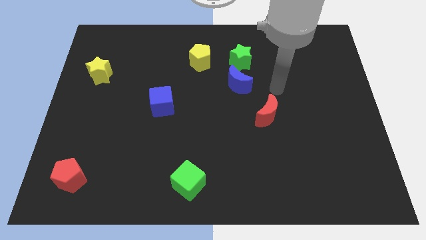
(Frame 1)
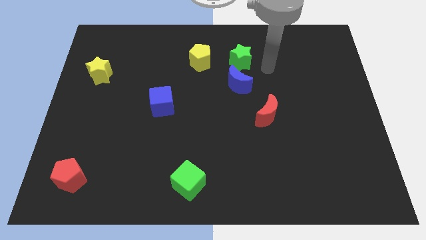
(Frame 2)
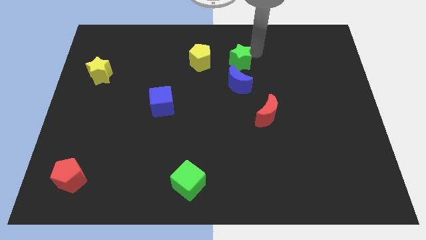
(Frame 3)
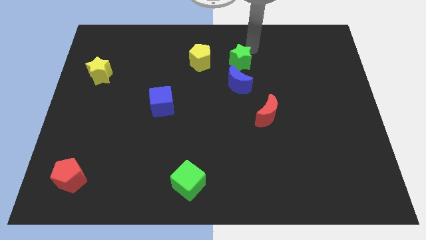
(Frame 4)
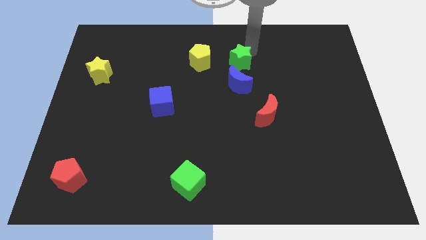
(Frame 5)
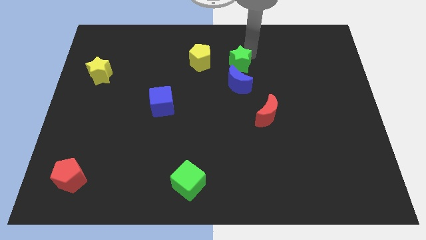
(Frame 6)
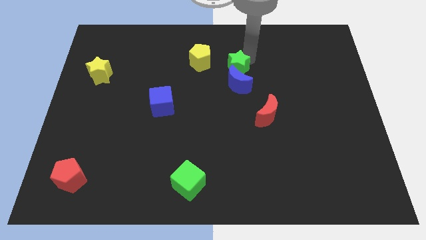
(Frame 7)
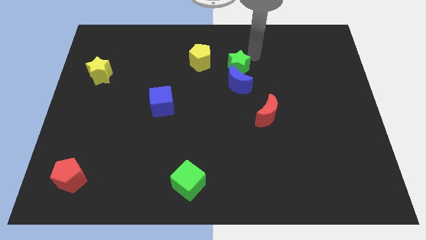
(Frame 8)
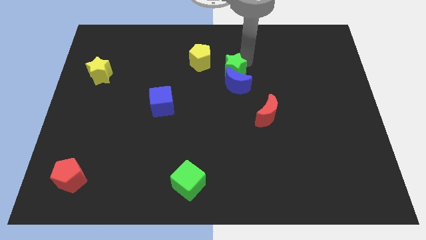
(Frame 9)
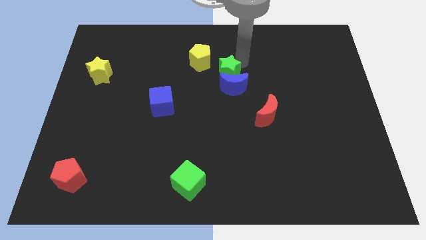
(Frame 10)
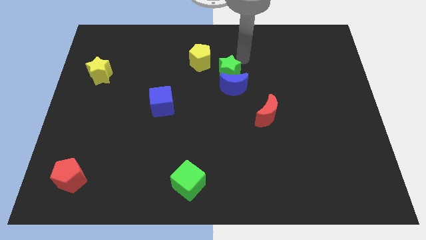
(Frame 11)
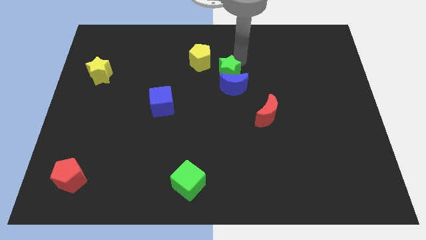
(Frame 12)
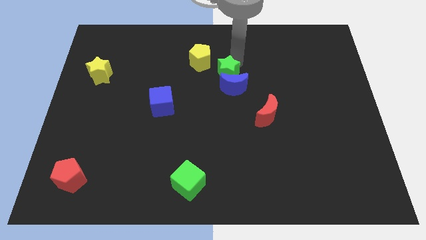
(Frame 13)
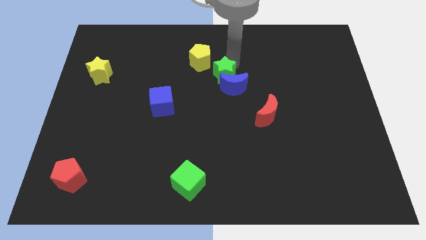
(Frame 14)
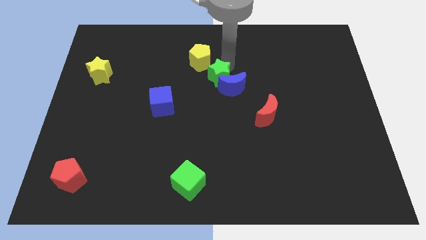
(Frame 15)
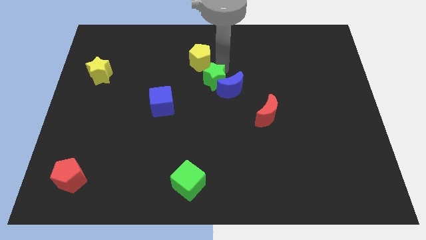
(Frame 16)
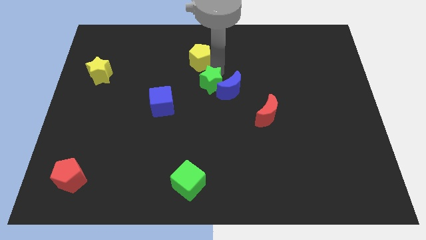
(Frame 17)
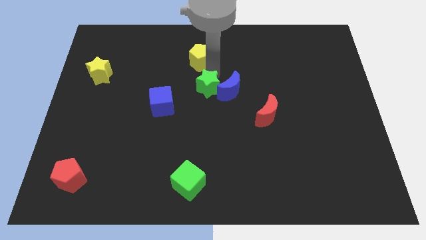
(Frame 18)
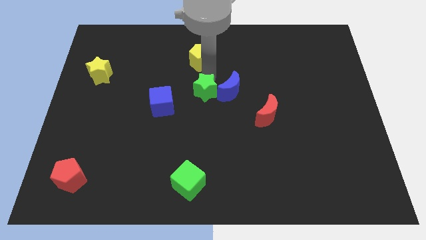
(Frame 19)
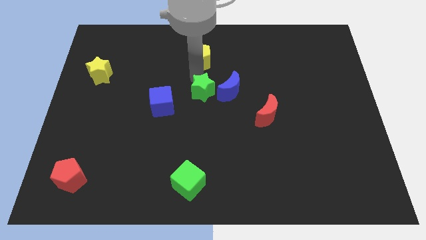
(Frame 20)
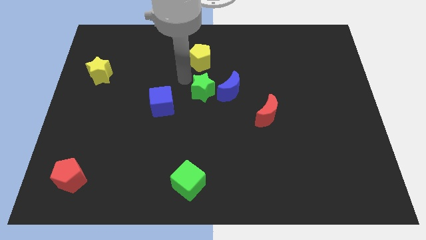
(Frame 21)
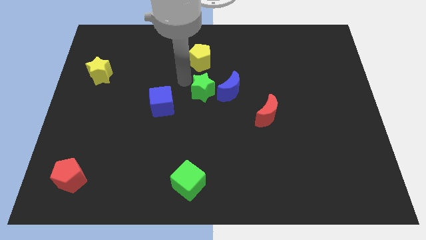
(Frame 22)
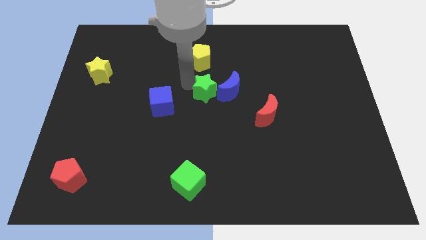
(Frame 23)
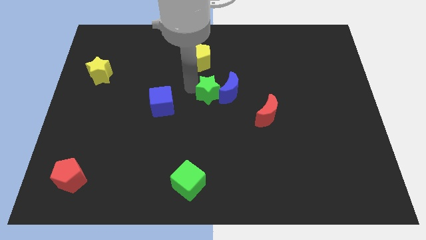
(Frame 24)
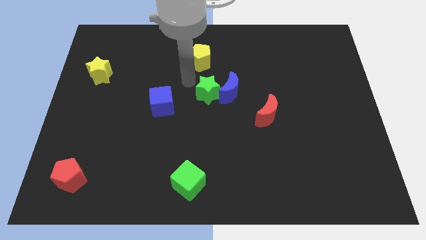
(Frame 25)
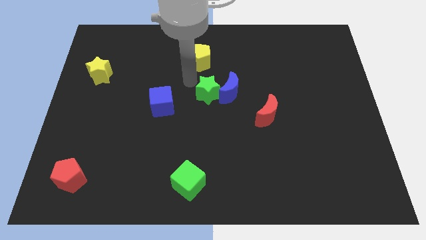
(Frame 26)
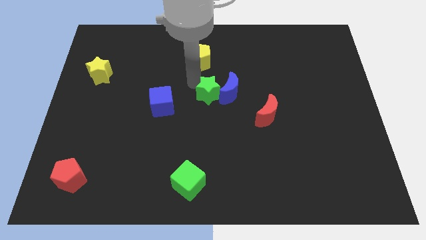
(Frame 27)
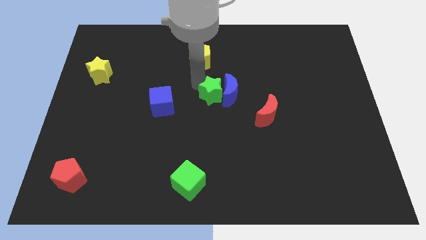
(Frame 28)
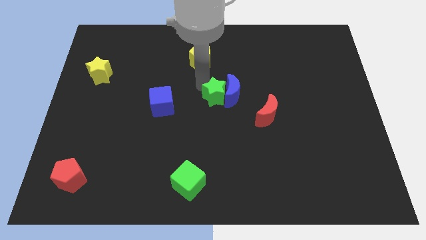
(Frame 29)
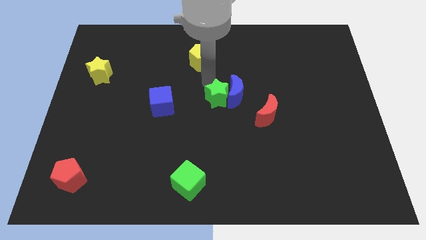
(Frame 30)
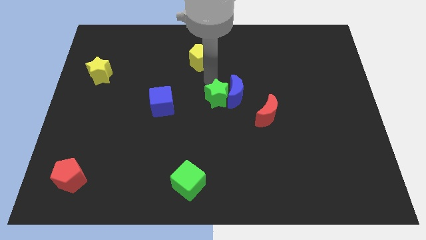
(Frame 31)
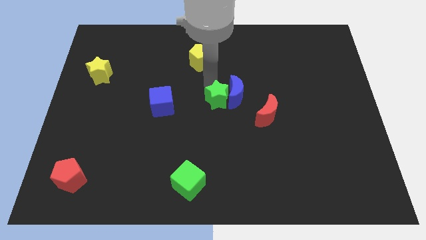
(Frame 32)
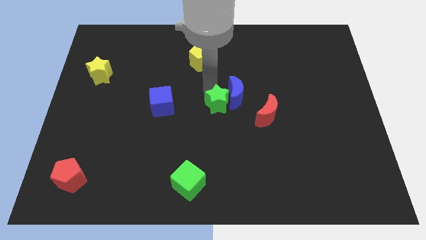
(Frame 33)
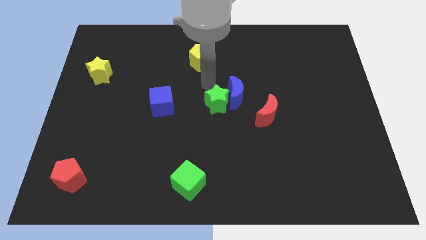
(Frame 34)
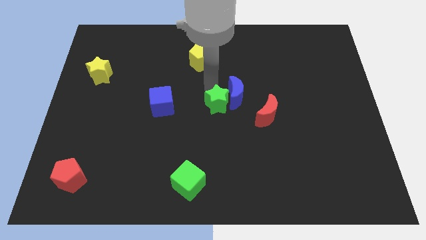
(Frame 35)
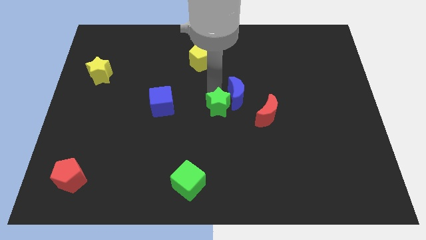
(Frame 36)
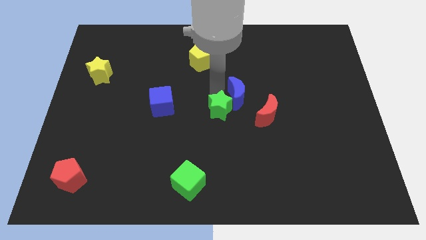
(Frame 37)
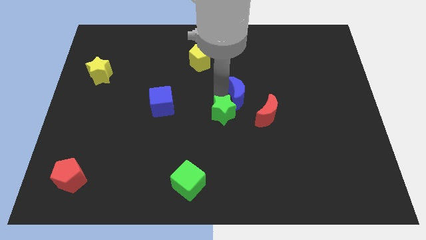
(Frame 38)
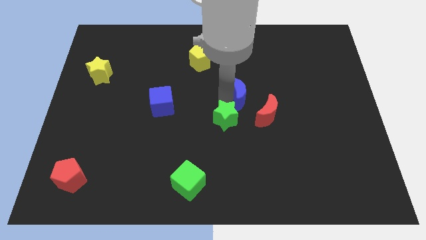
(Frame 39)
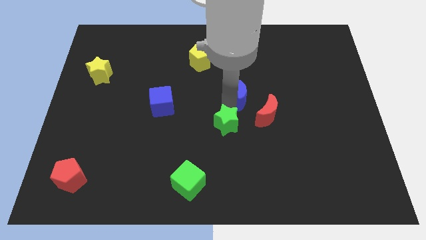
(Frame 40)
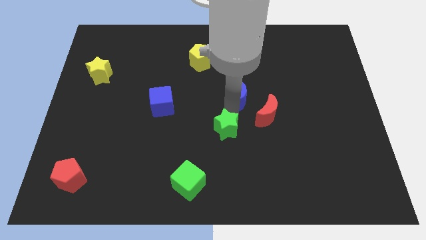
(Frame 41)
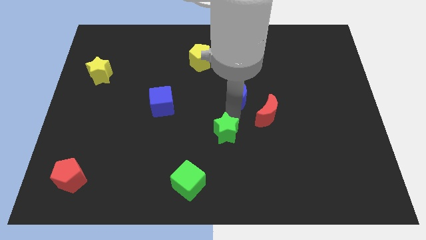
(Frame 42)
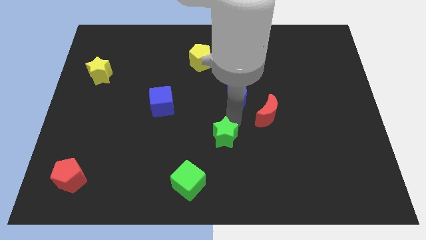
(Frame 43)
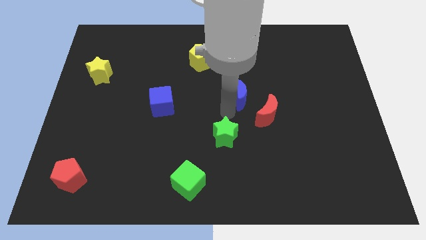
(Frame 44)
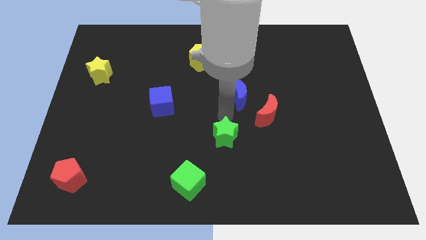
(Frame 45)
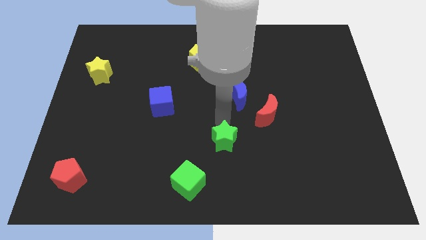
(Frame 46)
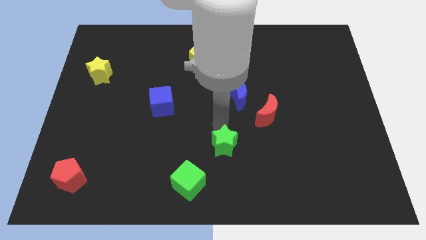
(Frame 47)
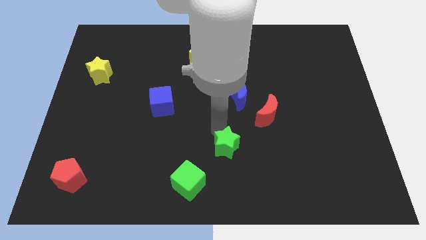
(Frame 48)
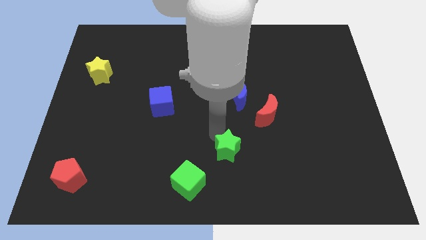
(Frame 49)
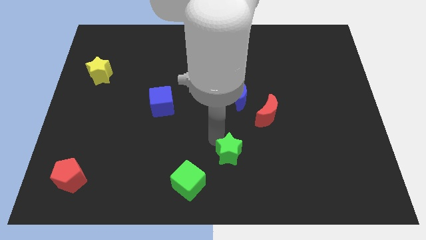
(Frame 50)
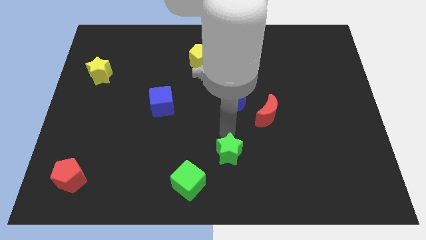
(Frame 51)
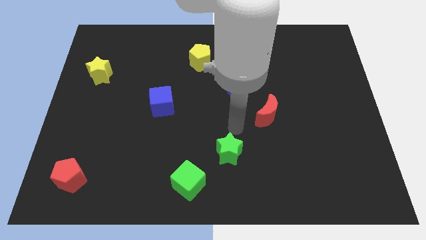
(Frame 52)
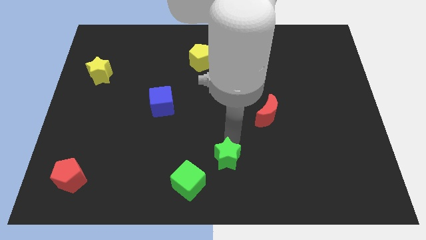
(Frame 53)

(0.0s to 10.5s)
slide the green star to the bottom side

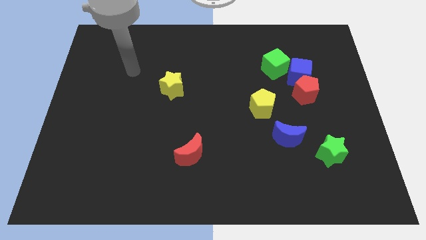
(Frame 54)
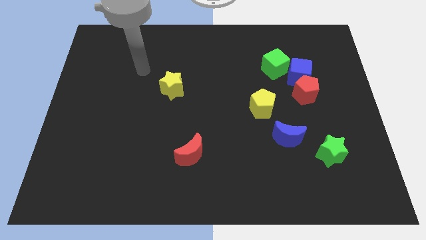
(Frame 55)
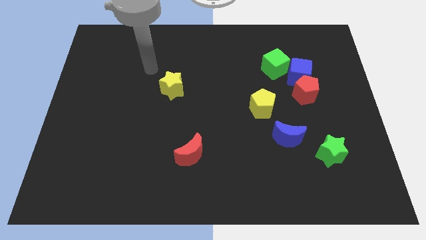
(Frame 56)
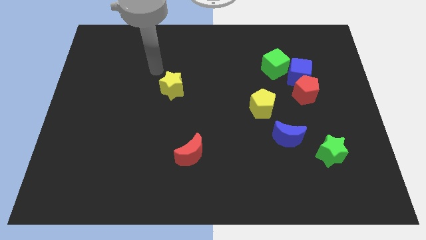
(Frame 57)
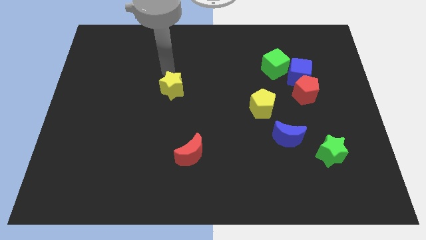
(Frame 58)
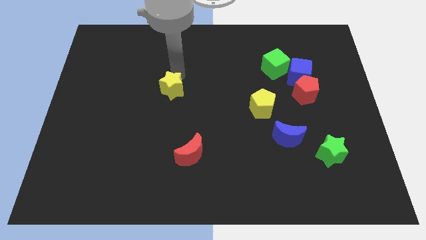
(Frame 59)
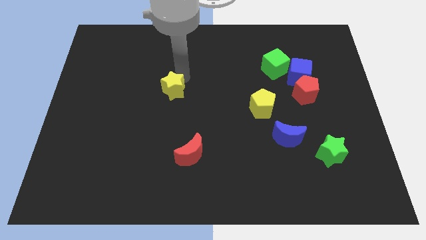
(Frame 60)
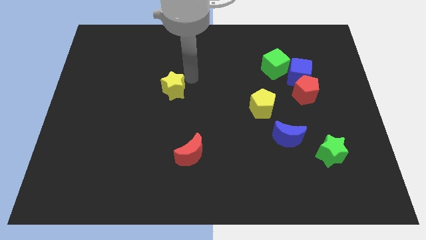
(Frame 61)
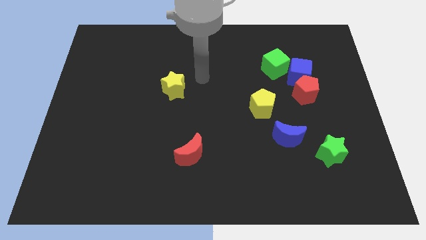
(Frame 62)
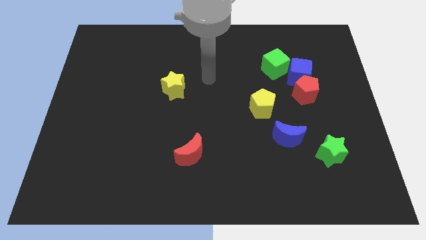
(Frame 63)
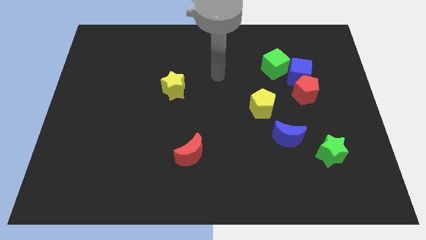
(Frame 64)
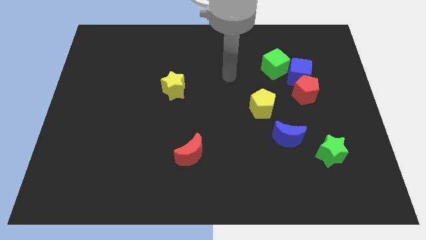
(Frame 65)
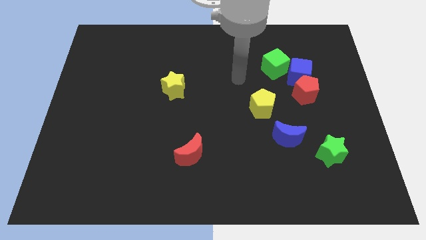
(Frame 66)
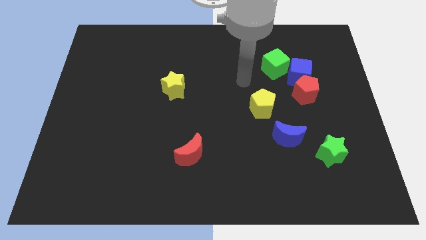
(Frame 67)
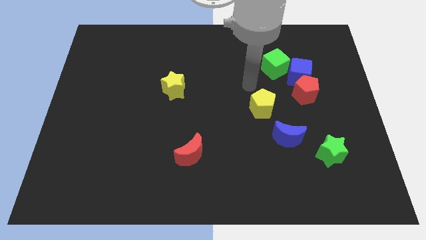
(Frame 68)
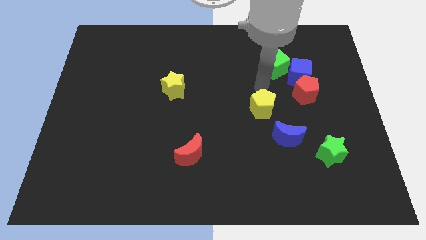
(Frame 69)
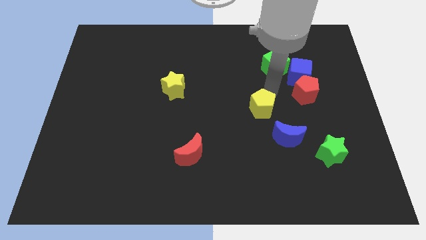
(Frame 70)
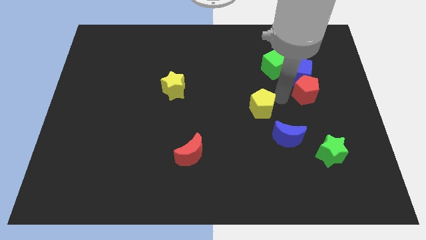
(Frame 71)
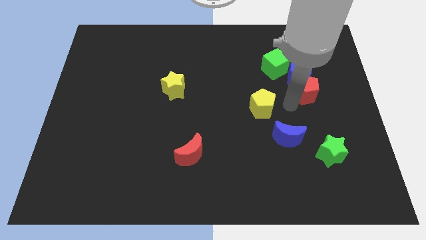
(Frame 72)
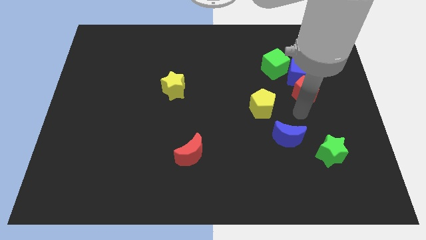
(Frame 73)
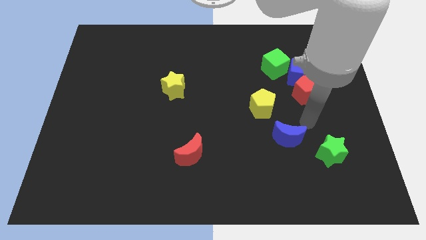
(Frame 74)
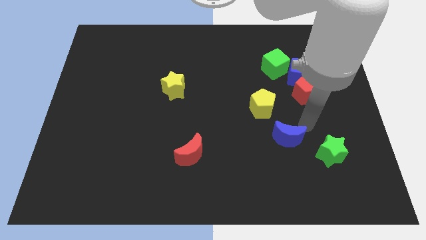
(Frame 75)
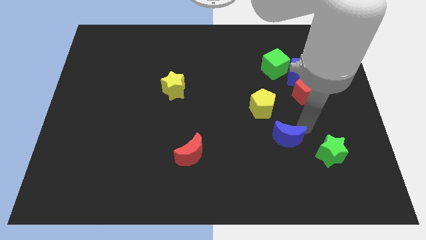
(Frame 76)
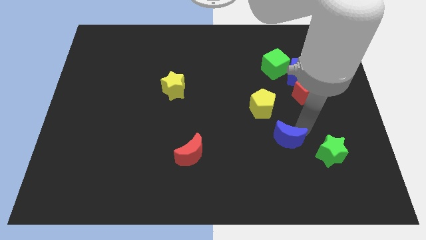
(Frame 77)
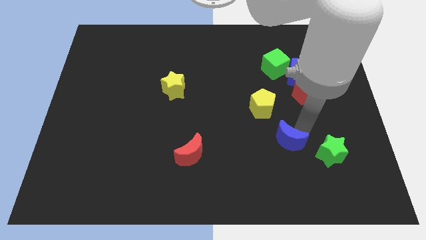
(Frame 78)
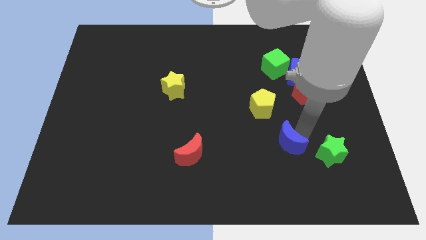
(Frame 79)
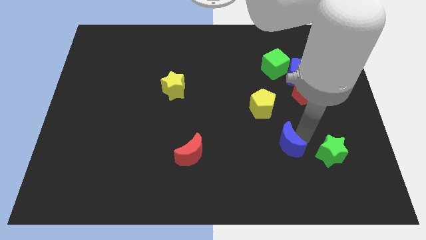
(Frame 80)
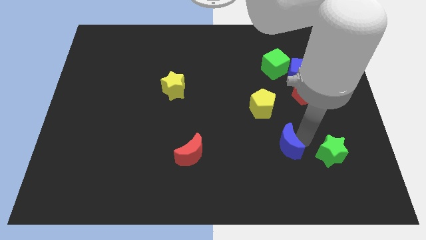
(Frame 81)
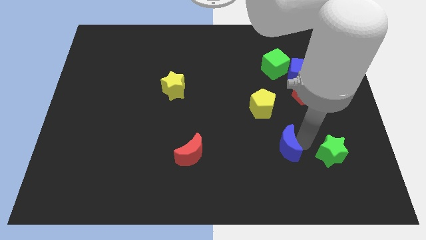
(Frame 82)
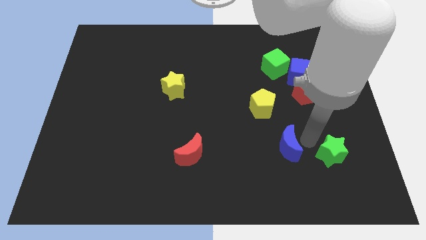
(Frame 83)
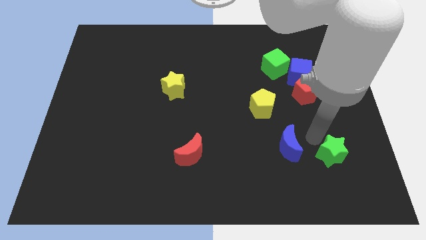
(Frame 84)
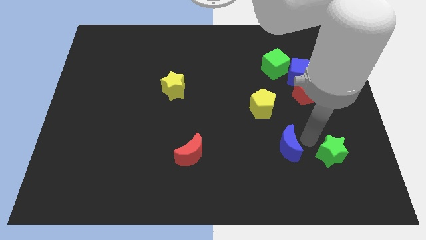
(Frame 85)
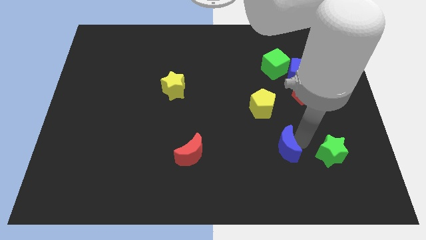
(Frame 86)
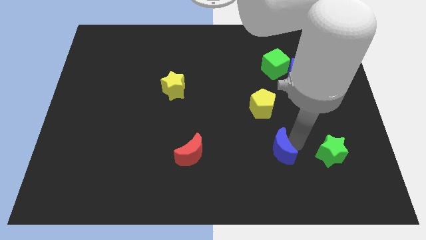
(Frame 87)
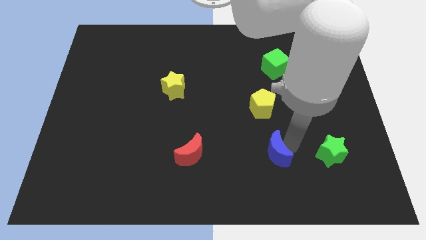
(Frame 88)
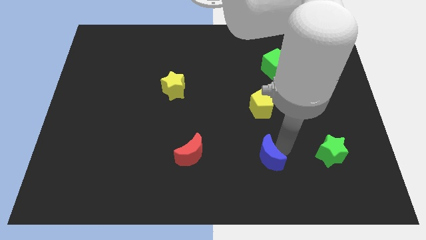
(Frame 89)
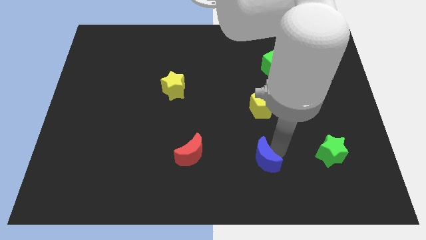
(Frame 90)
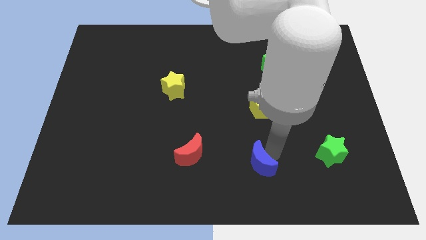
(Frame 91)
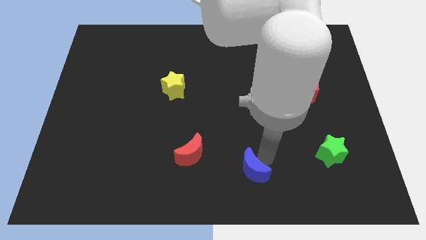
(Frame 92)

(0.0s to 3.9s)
move the blue moon to the bottom side

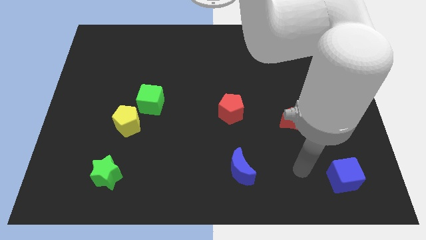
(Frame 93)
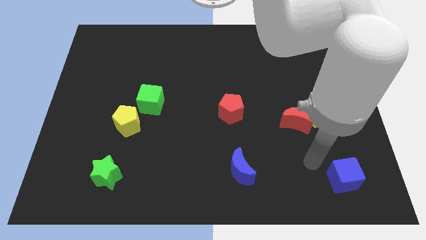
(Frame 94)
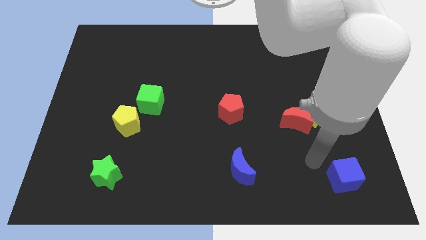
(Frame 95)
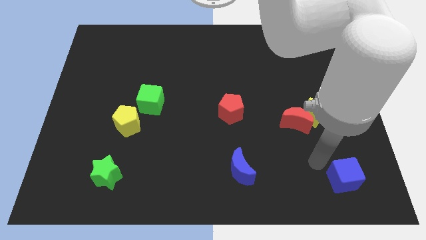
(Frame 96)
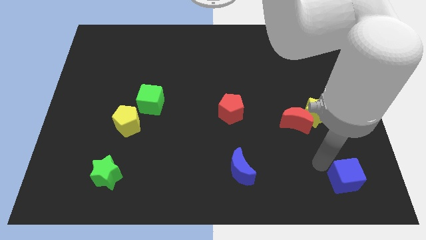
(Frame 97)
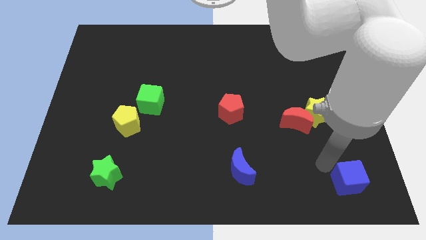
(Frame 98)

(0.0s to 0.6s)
slide the blue cube to the lower right corner
